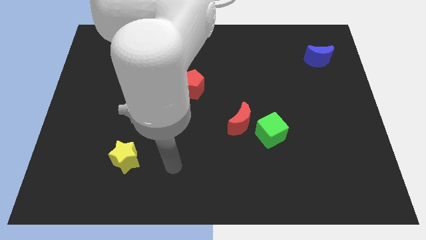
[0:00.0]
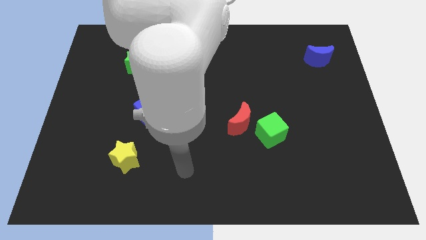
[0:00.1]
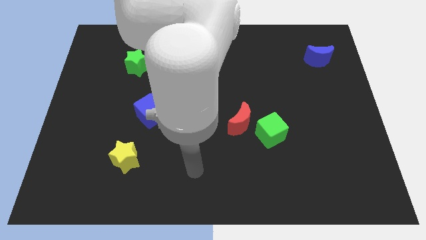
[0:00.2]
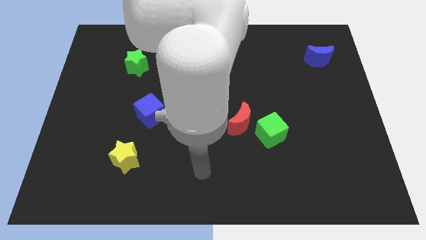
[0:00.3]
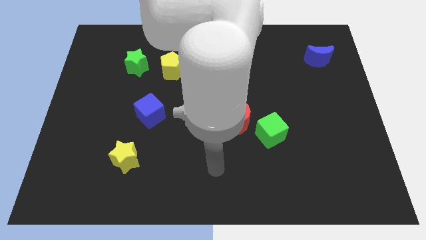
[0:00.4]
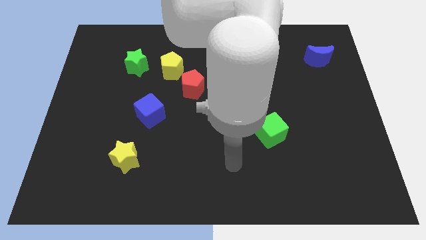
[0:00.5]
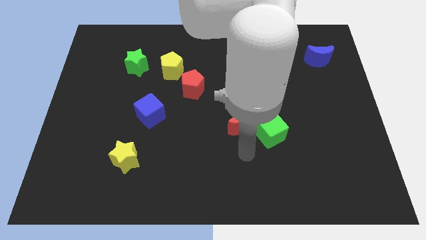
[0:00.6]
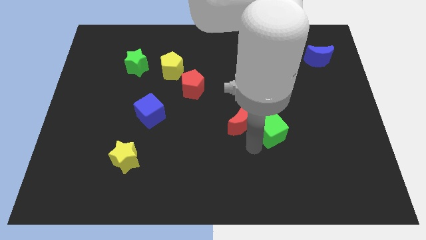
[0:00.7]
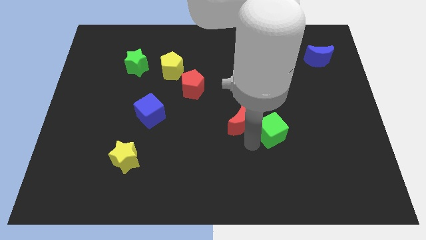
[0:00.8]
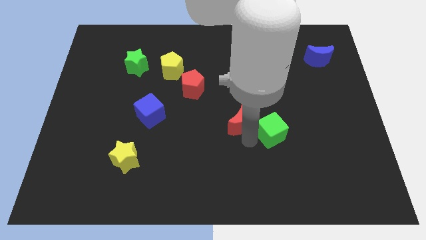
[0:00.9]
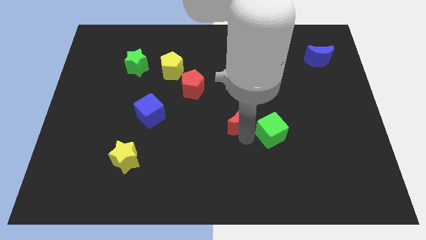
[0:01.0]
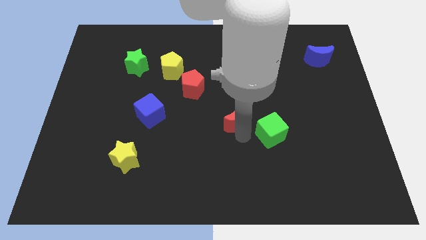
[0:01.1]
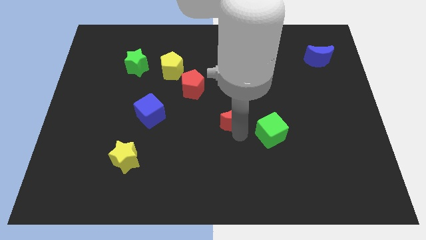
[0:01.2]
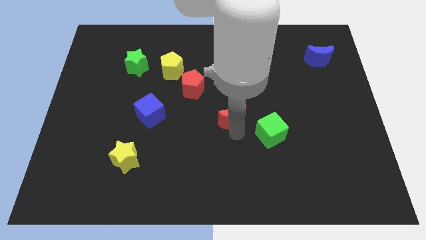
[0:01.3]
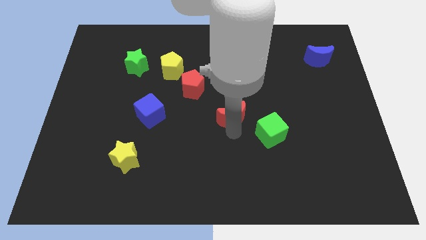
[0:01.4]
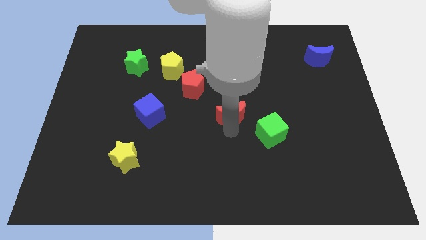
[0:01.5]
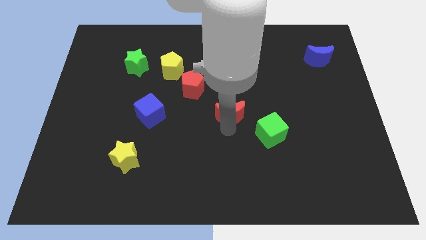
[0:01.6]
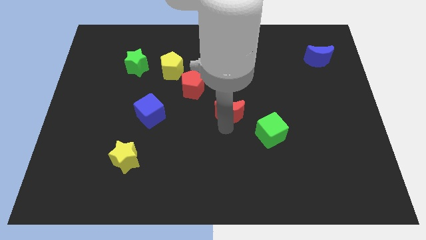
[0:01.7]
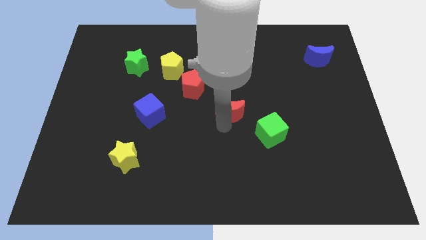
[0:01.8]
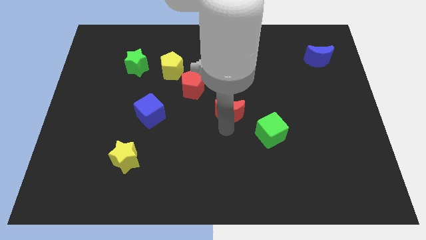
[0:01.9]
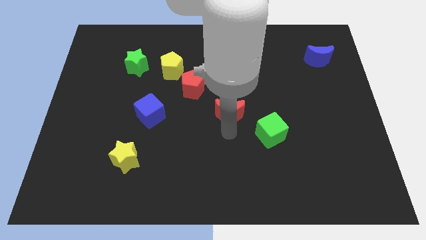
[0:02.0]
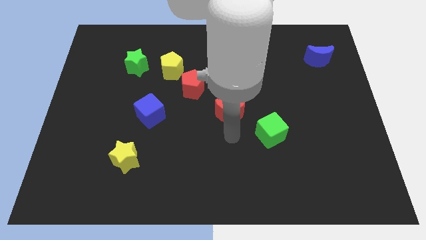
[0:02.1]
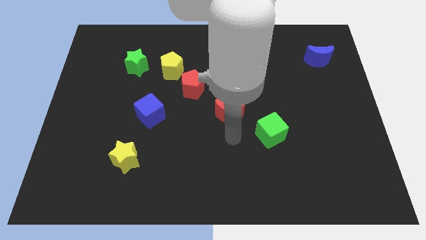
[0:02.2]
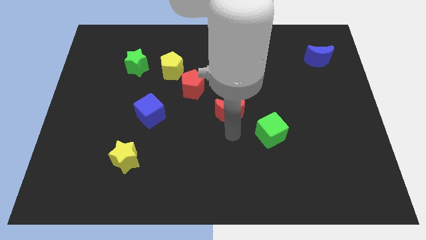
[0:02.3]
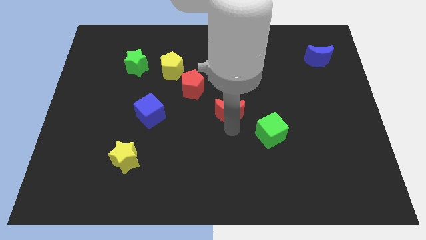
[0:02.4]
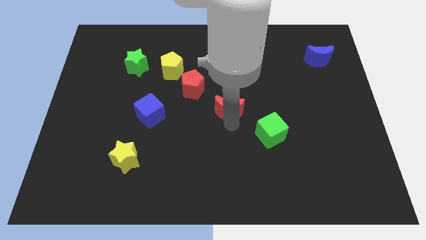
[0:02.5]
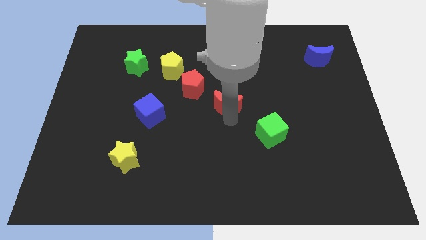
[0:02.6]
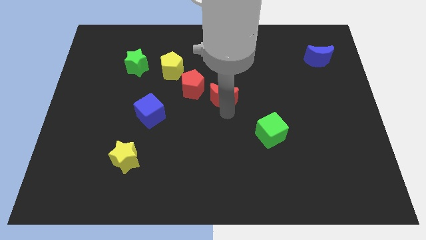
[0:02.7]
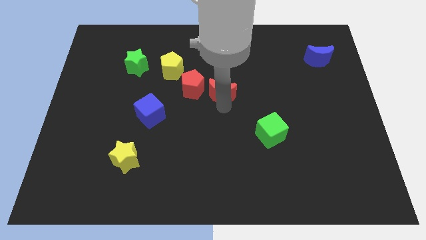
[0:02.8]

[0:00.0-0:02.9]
slide the red moon up a bit

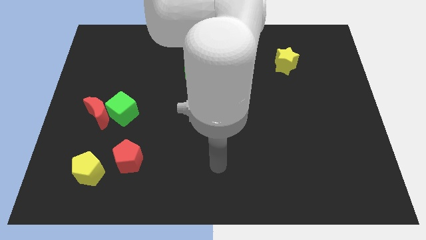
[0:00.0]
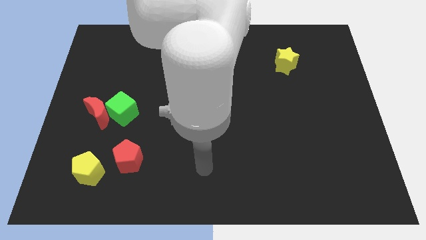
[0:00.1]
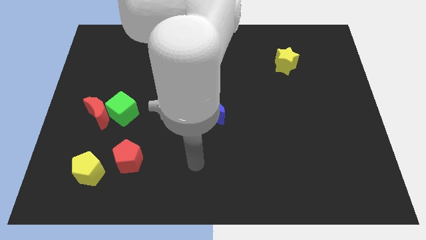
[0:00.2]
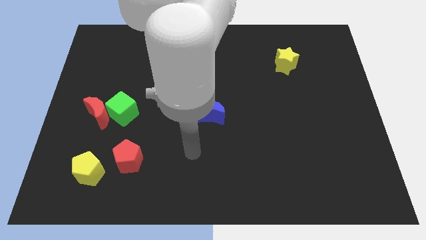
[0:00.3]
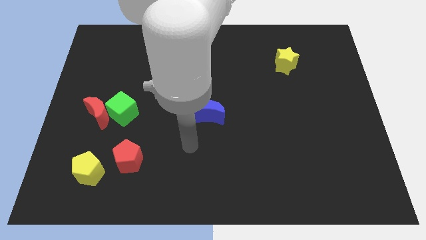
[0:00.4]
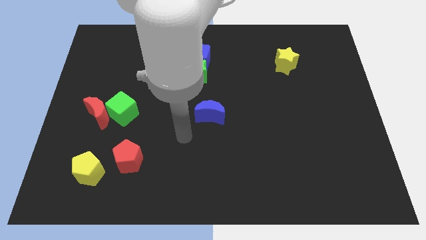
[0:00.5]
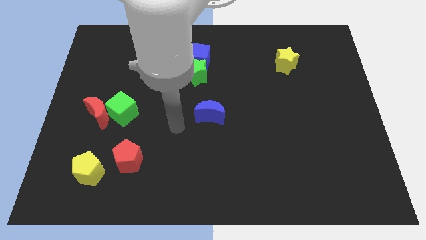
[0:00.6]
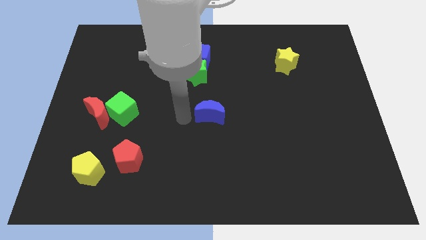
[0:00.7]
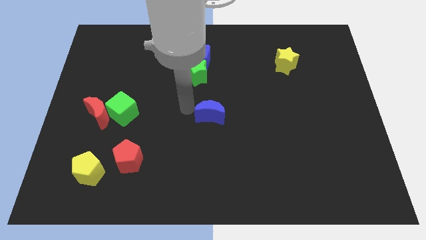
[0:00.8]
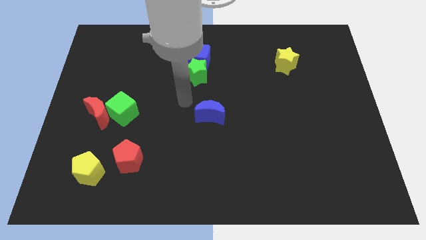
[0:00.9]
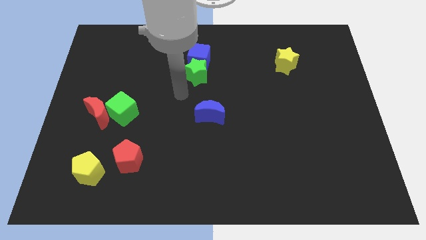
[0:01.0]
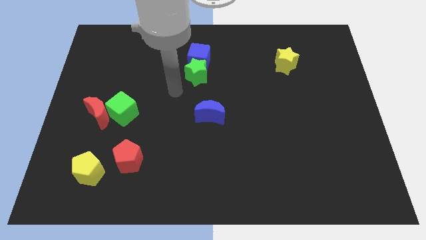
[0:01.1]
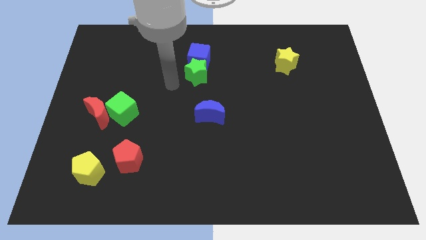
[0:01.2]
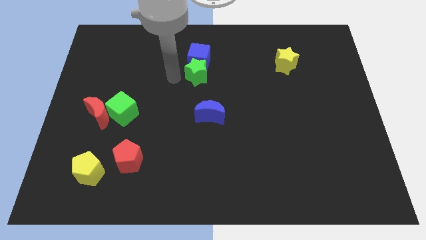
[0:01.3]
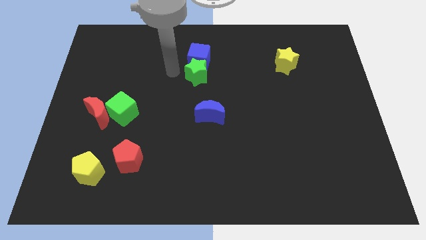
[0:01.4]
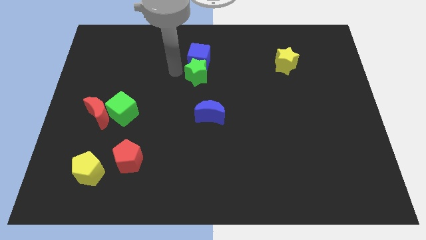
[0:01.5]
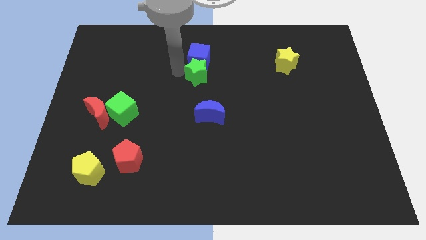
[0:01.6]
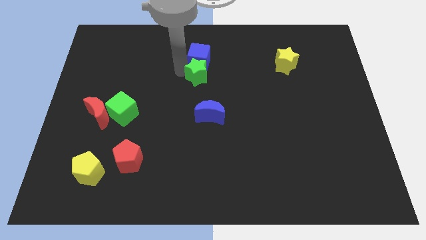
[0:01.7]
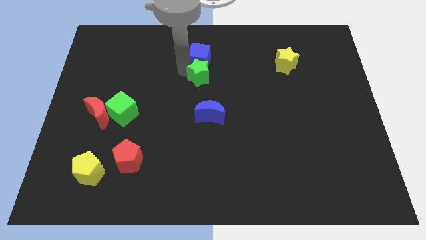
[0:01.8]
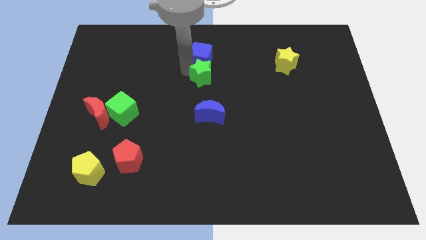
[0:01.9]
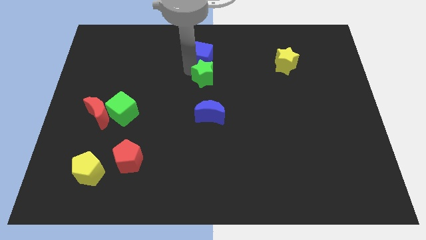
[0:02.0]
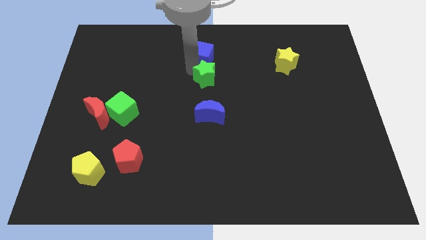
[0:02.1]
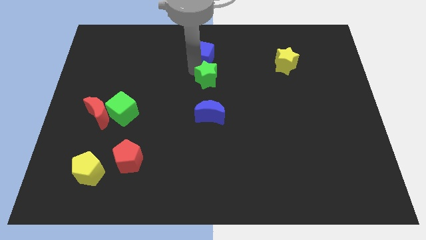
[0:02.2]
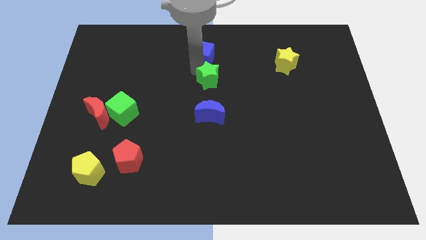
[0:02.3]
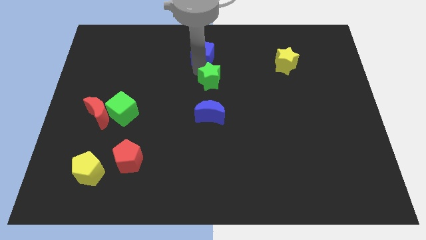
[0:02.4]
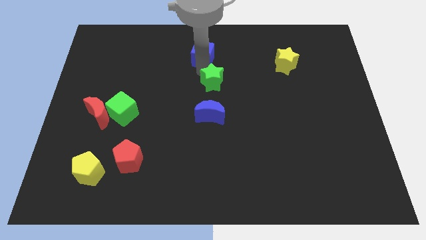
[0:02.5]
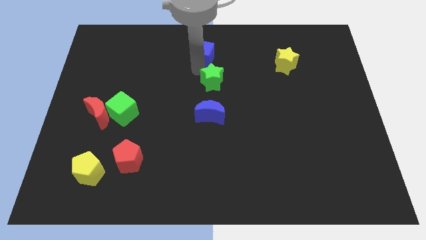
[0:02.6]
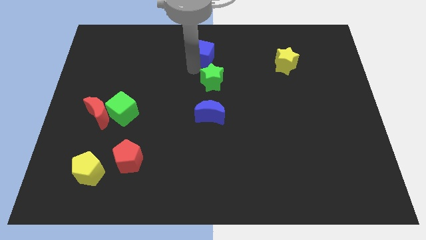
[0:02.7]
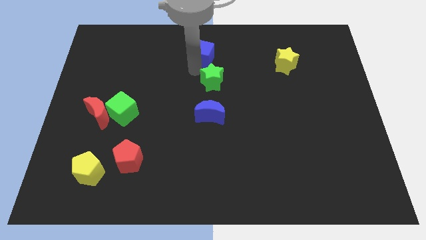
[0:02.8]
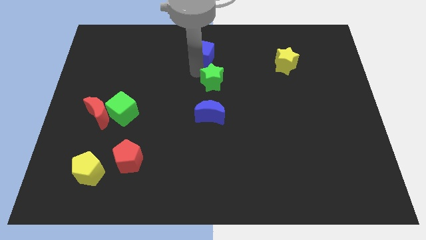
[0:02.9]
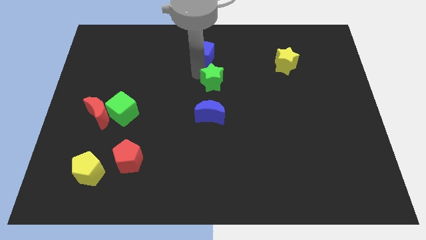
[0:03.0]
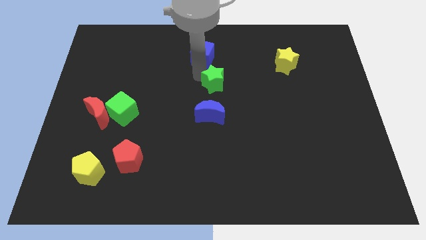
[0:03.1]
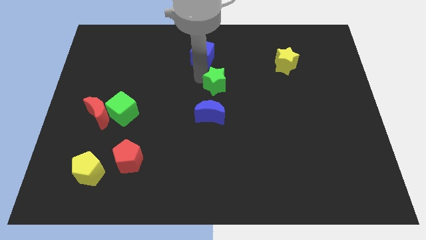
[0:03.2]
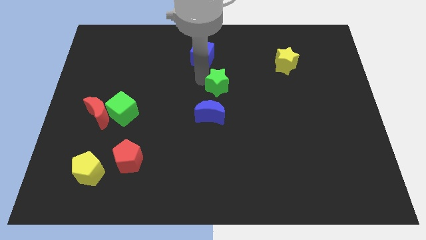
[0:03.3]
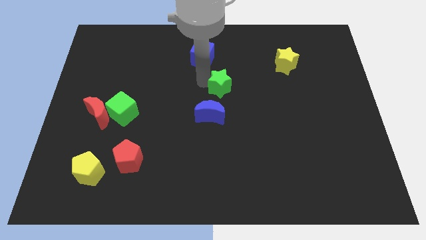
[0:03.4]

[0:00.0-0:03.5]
push the green star down and then right a bit

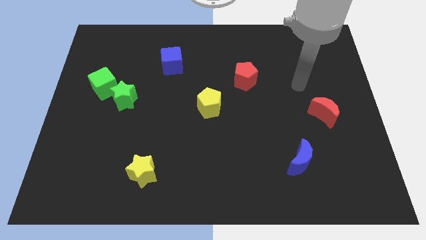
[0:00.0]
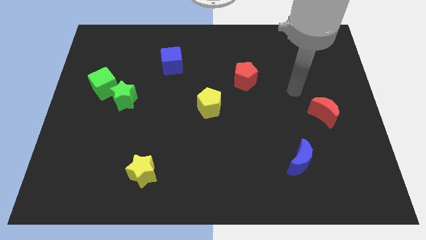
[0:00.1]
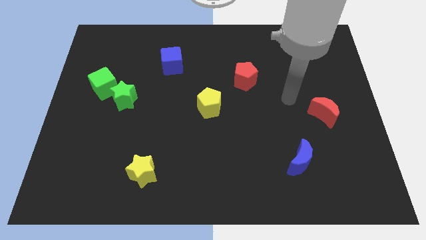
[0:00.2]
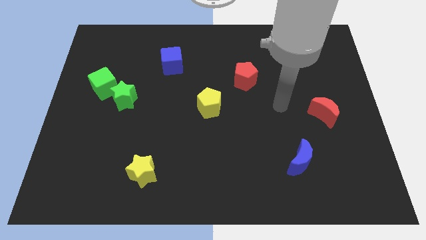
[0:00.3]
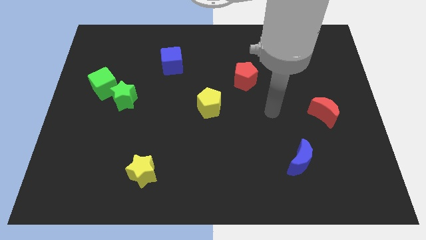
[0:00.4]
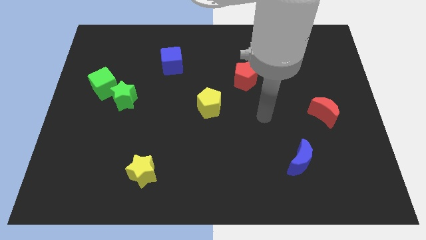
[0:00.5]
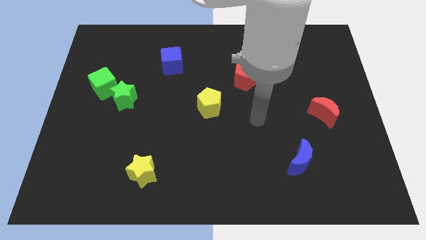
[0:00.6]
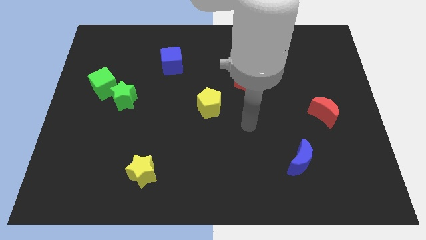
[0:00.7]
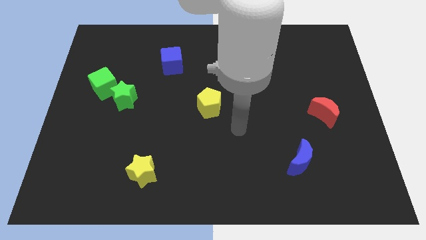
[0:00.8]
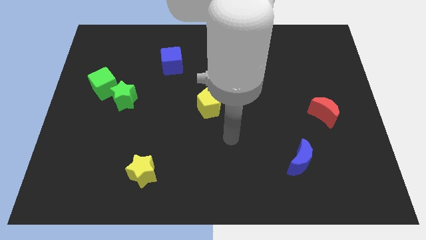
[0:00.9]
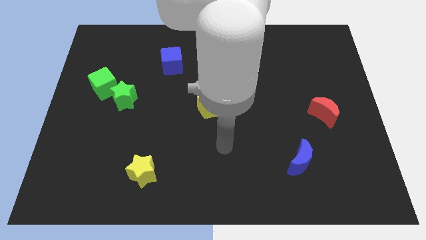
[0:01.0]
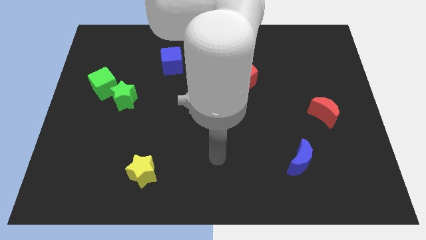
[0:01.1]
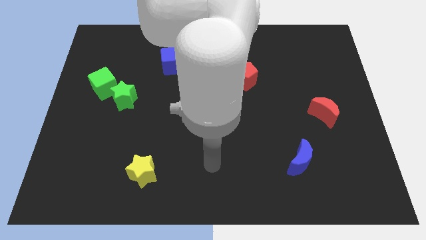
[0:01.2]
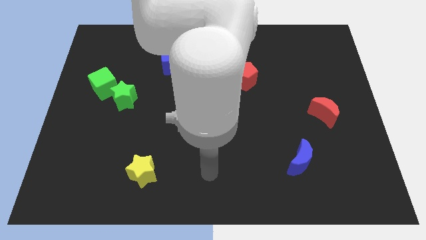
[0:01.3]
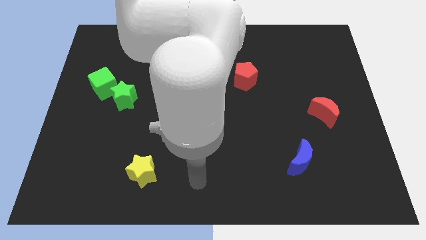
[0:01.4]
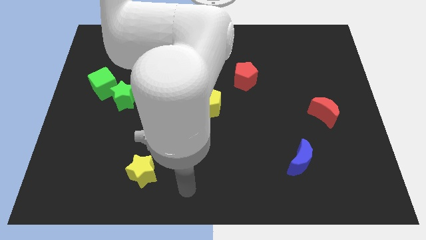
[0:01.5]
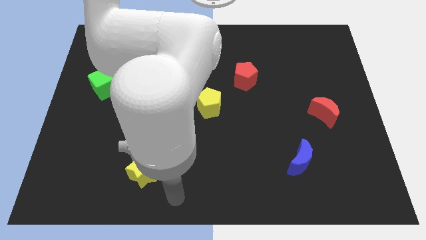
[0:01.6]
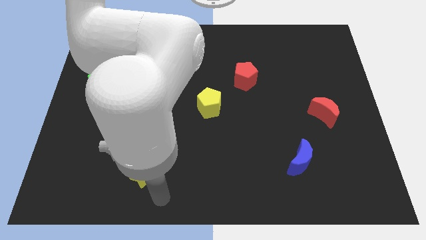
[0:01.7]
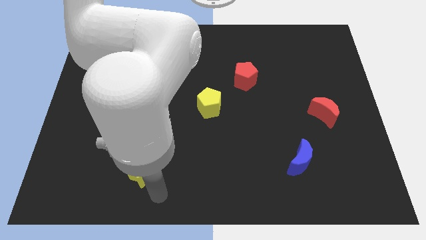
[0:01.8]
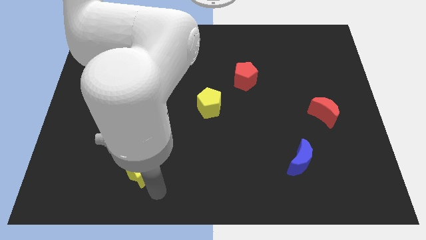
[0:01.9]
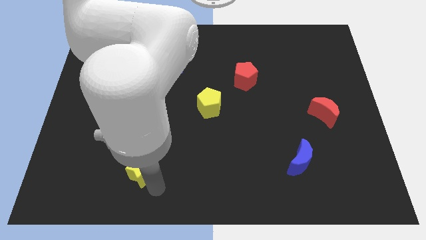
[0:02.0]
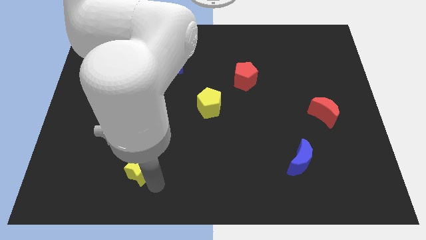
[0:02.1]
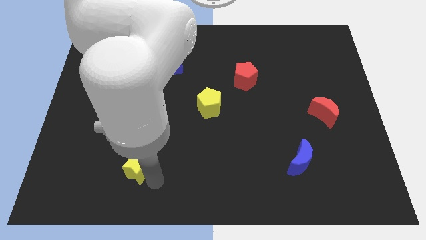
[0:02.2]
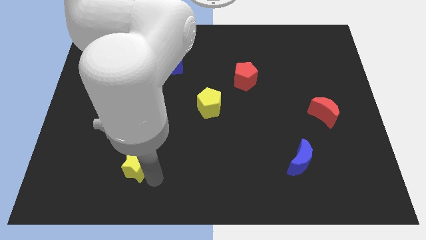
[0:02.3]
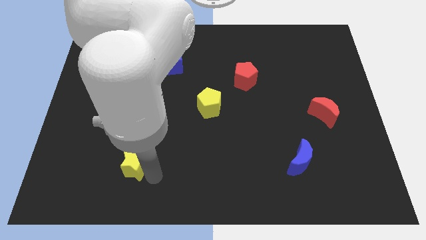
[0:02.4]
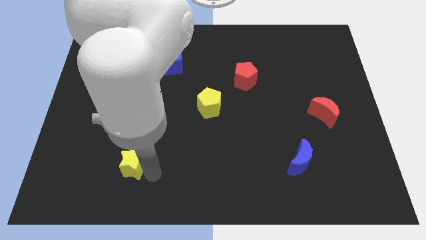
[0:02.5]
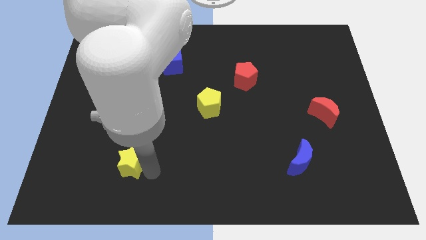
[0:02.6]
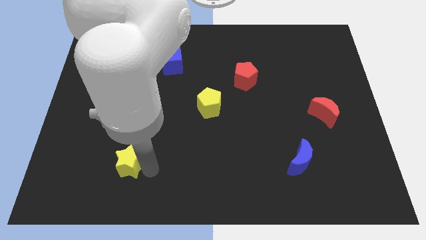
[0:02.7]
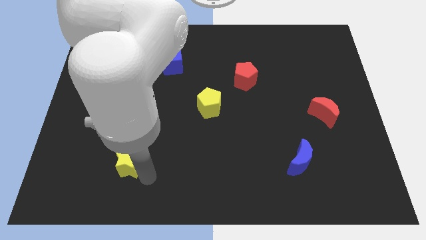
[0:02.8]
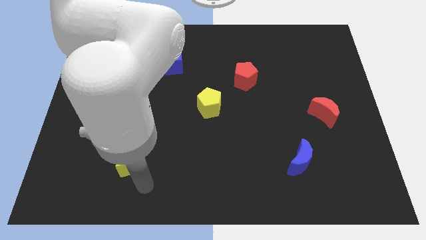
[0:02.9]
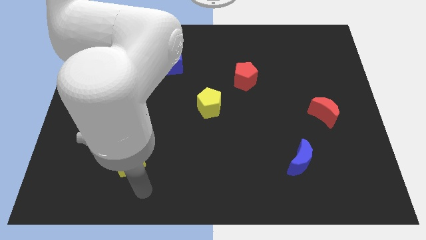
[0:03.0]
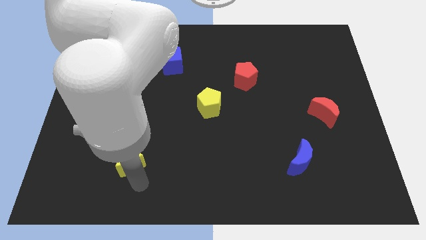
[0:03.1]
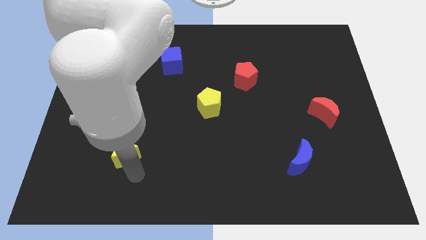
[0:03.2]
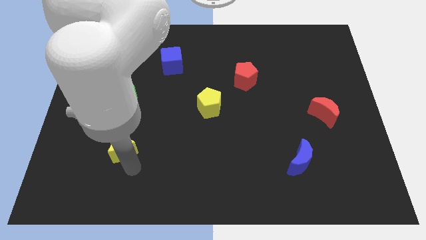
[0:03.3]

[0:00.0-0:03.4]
push the yellow star somewhat up and to the left diagonally
